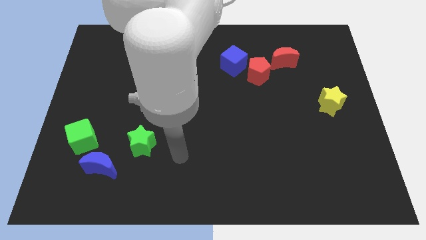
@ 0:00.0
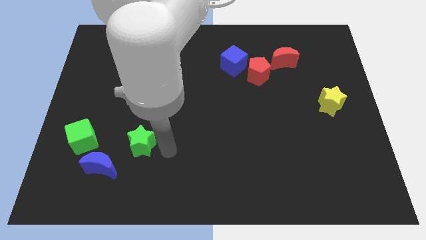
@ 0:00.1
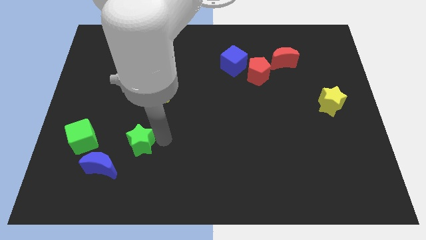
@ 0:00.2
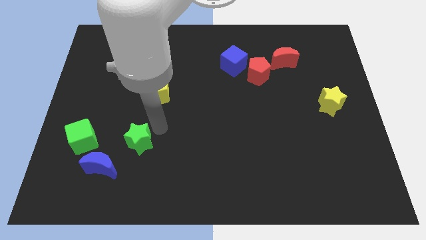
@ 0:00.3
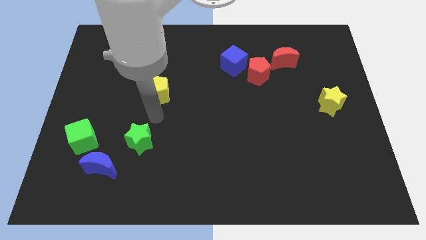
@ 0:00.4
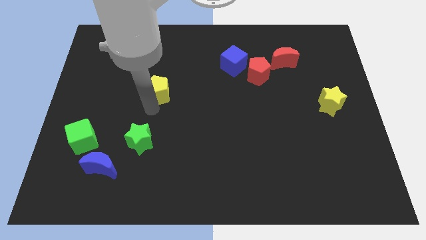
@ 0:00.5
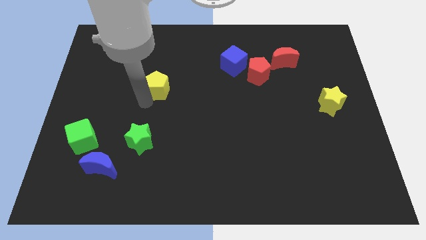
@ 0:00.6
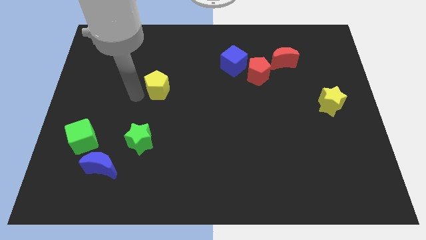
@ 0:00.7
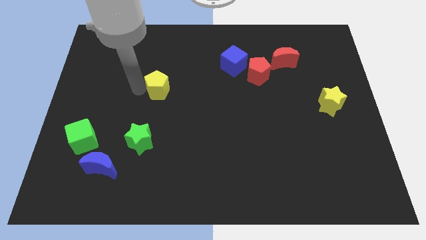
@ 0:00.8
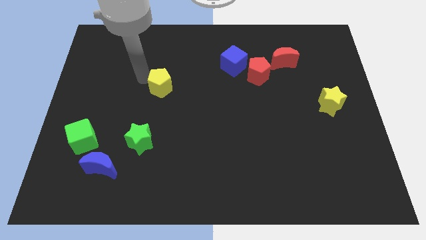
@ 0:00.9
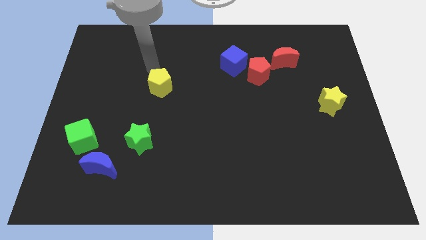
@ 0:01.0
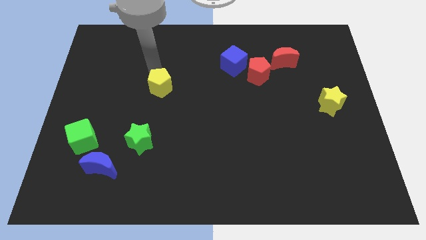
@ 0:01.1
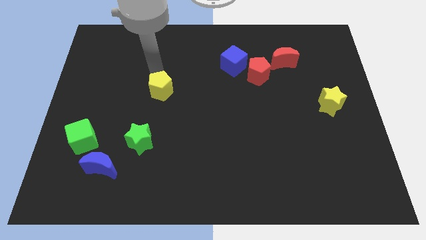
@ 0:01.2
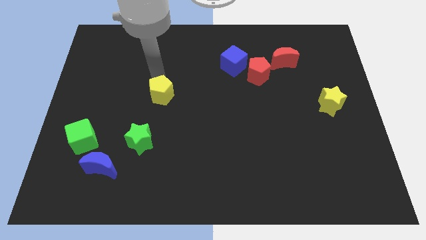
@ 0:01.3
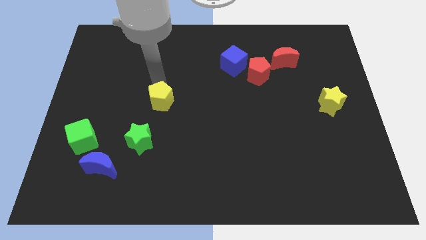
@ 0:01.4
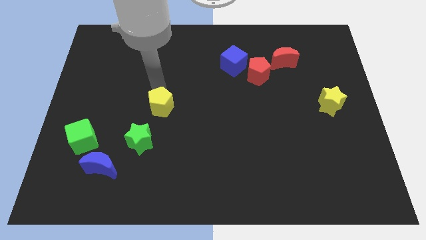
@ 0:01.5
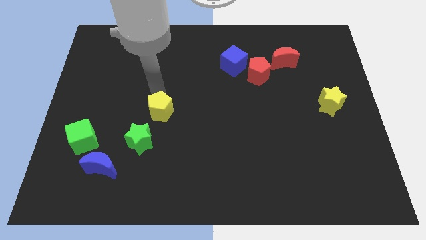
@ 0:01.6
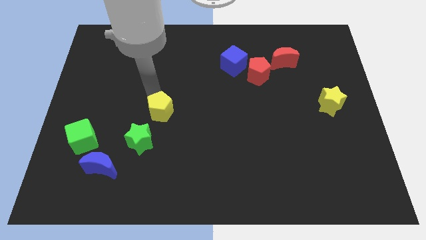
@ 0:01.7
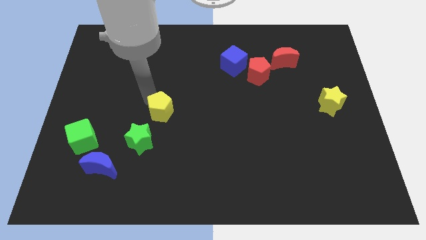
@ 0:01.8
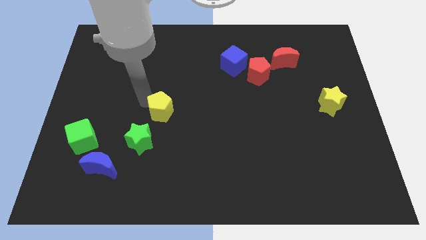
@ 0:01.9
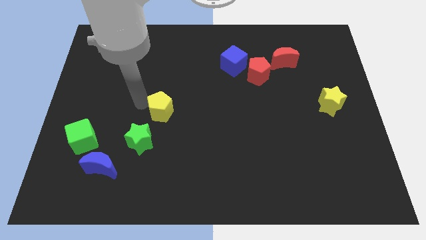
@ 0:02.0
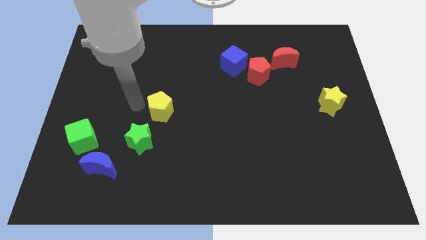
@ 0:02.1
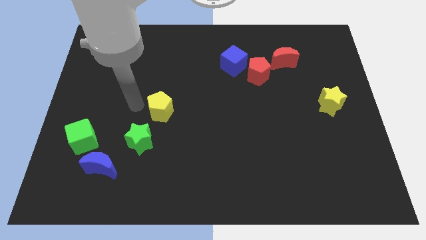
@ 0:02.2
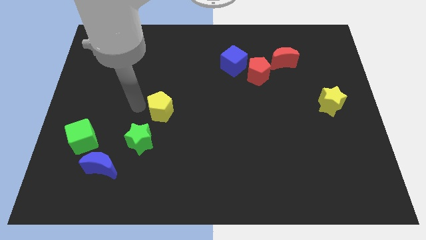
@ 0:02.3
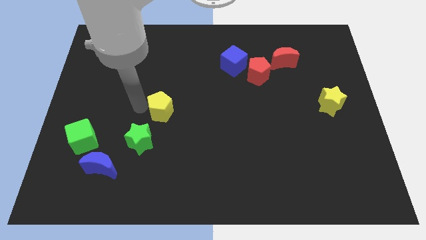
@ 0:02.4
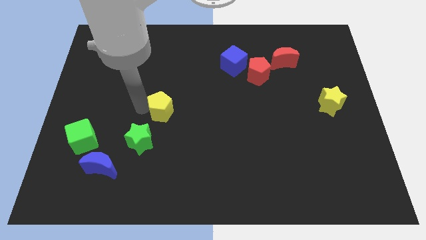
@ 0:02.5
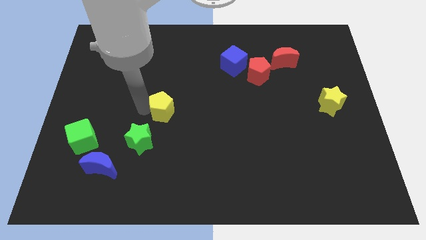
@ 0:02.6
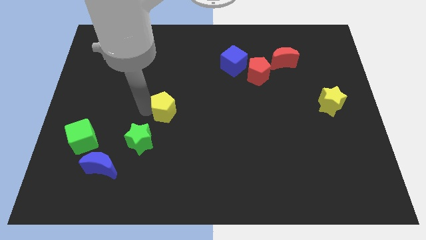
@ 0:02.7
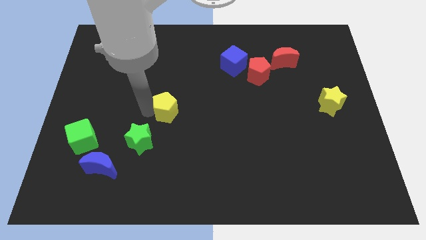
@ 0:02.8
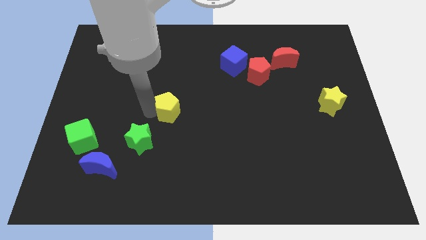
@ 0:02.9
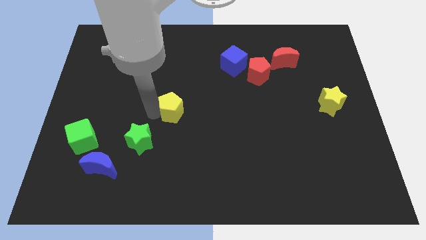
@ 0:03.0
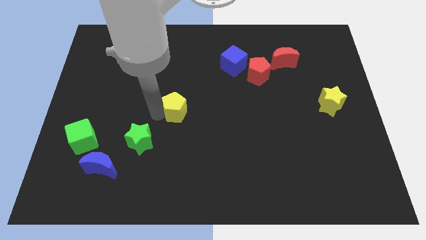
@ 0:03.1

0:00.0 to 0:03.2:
push the yellow pentagon down and to the right a bit

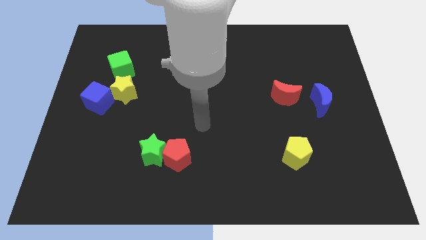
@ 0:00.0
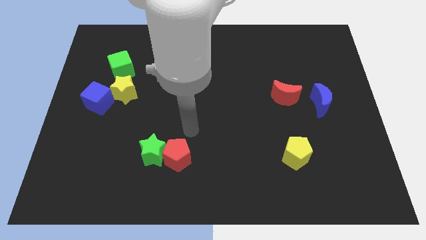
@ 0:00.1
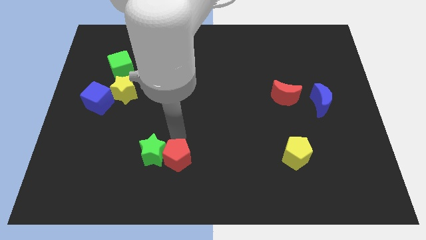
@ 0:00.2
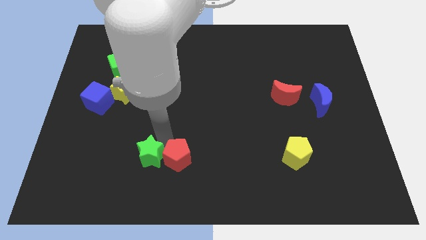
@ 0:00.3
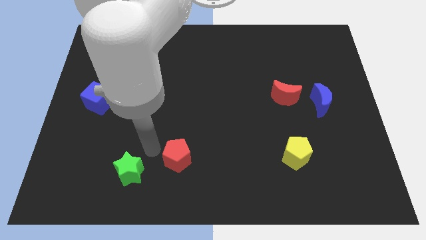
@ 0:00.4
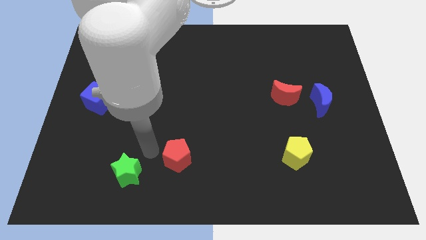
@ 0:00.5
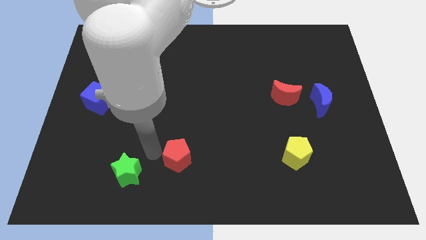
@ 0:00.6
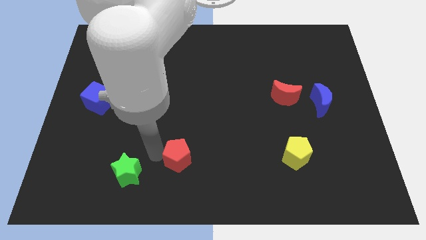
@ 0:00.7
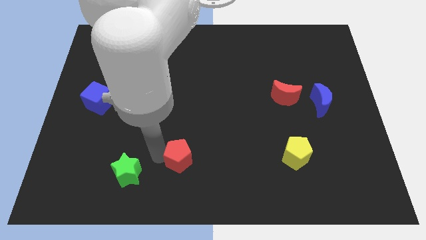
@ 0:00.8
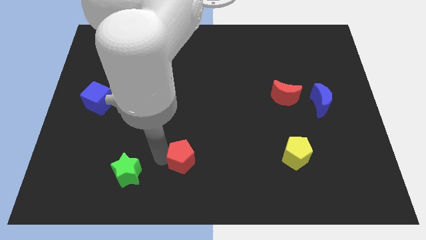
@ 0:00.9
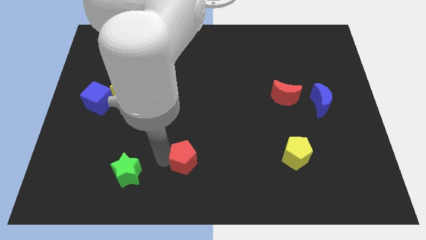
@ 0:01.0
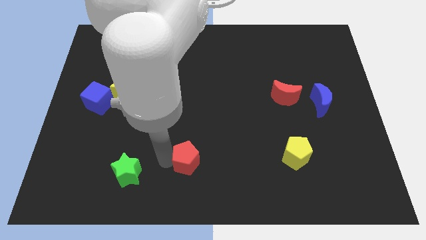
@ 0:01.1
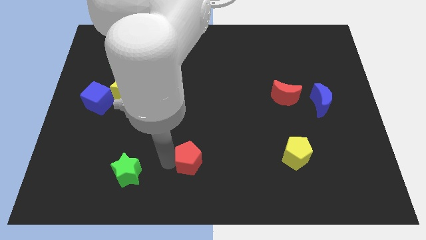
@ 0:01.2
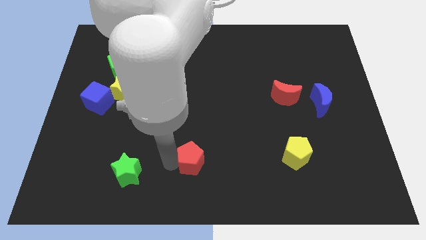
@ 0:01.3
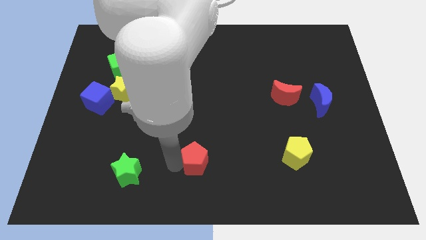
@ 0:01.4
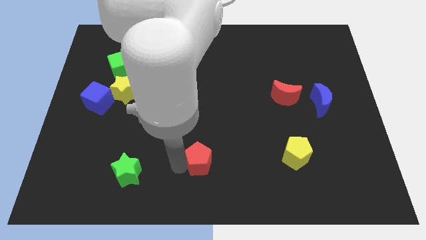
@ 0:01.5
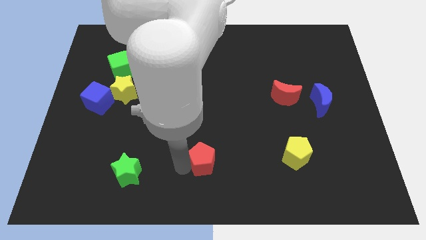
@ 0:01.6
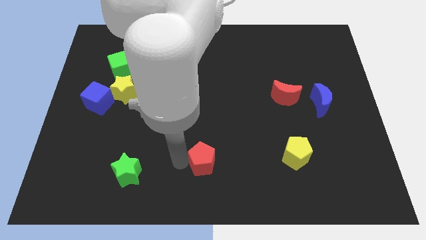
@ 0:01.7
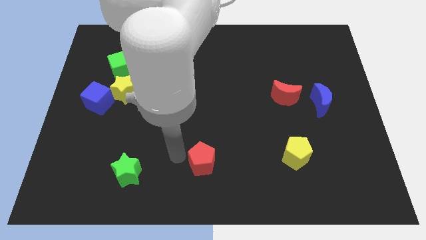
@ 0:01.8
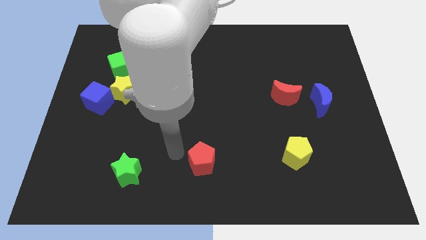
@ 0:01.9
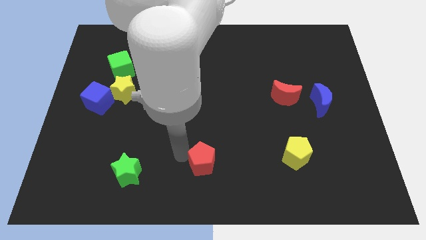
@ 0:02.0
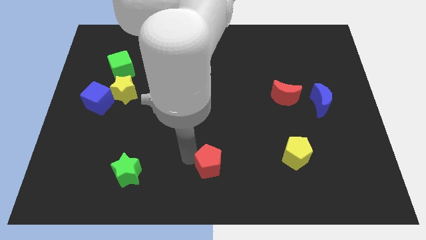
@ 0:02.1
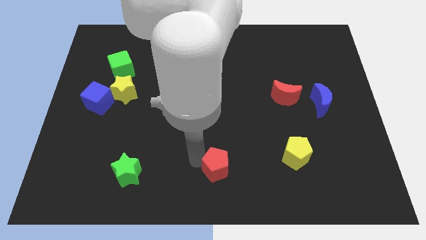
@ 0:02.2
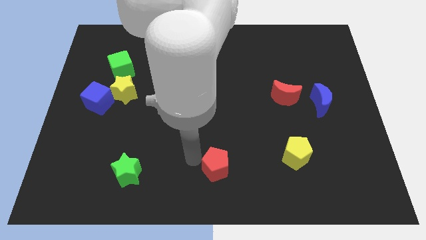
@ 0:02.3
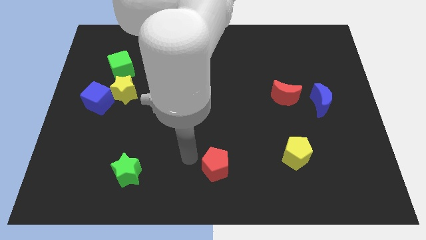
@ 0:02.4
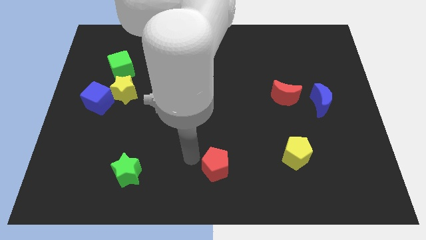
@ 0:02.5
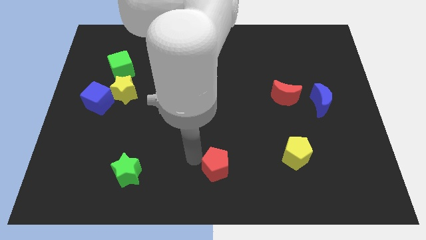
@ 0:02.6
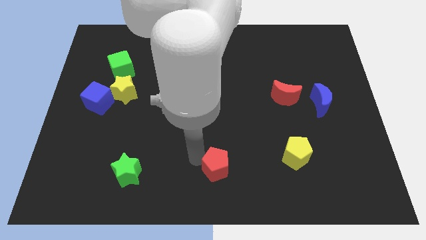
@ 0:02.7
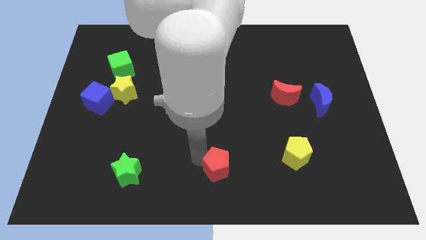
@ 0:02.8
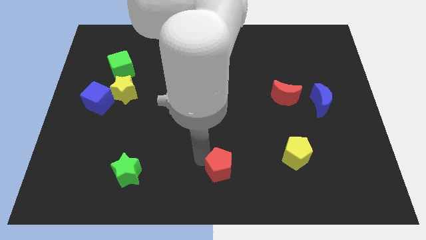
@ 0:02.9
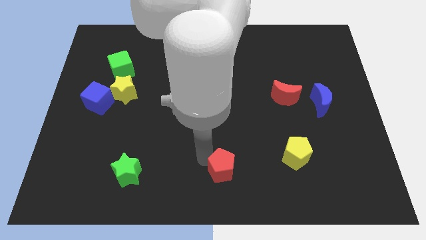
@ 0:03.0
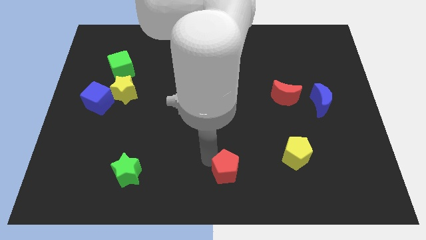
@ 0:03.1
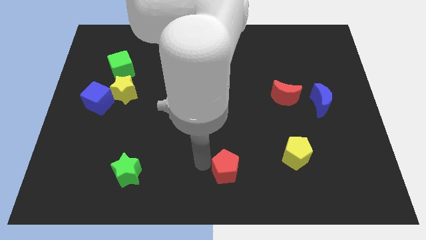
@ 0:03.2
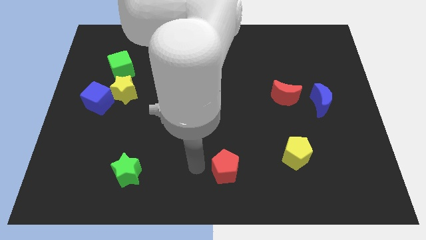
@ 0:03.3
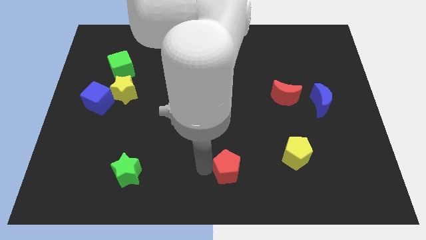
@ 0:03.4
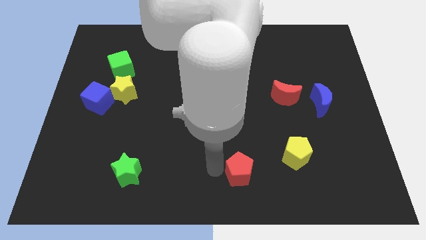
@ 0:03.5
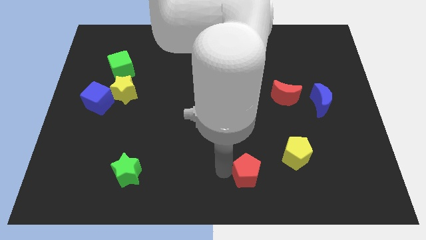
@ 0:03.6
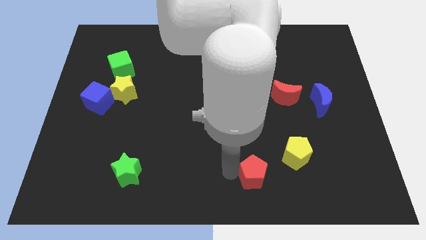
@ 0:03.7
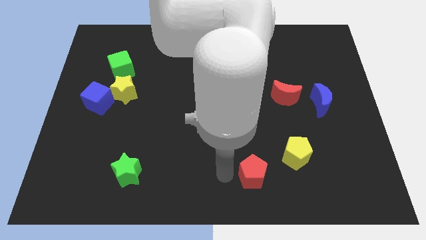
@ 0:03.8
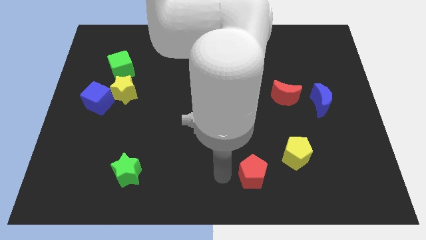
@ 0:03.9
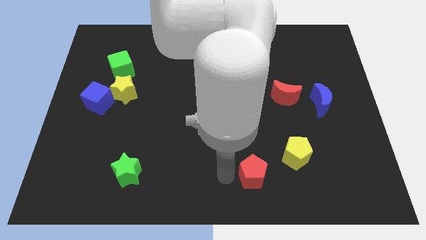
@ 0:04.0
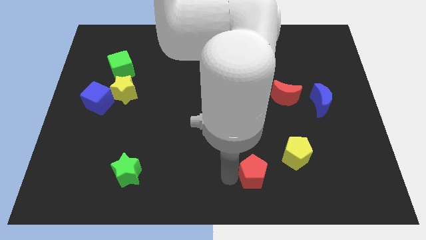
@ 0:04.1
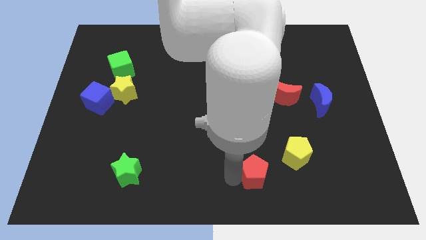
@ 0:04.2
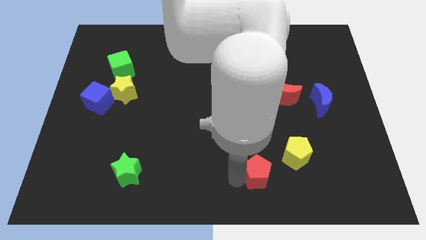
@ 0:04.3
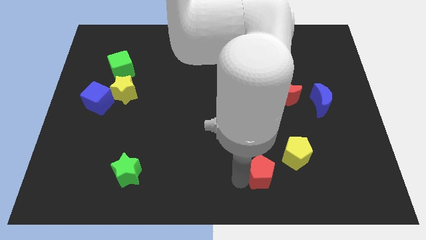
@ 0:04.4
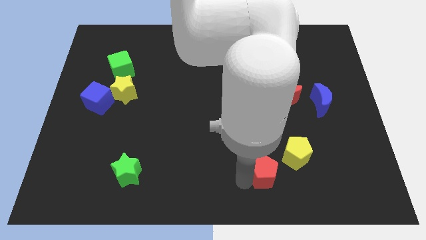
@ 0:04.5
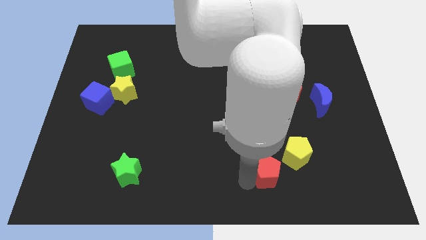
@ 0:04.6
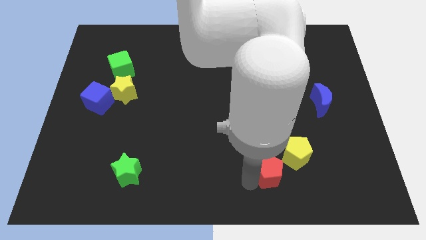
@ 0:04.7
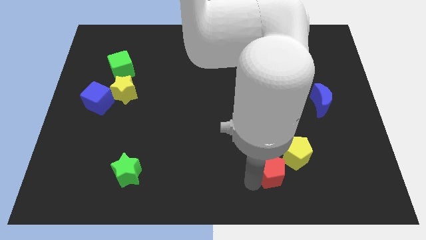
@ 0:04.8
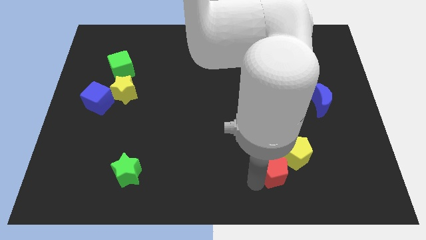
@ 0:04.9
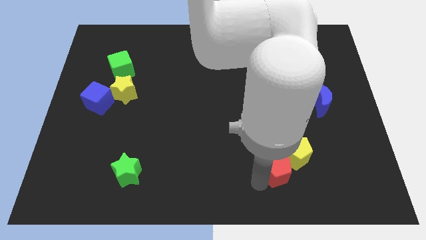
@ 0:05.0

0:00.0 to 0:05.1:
slide the red pentagon to the right
